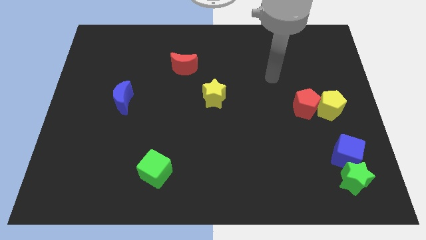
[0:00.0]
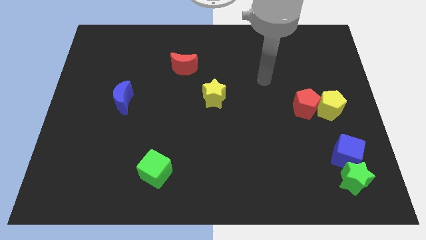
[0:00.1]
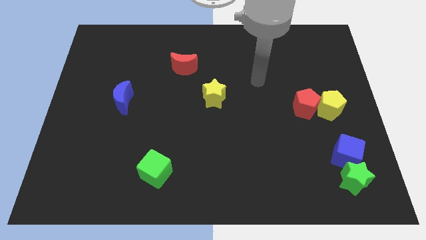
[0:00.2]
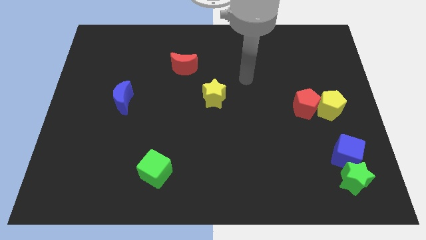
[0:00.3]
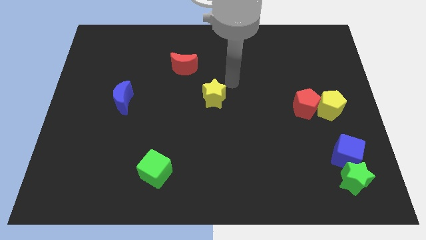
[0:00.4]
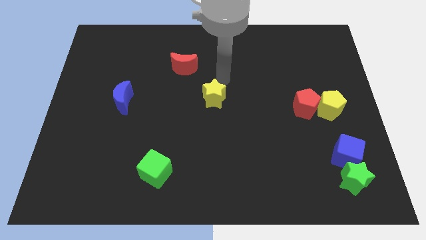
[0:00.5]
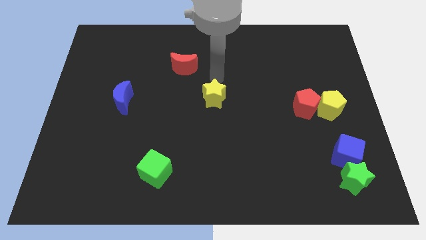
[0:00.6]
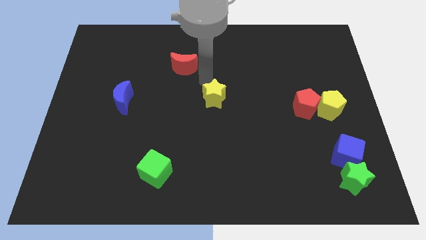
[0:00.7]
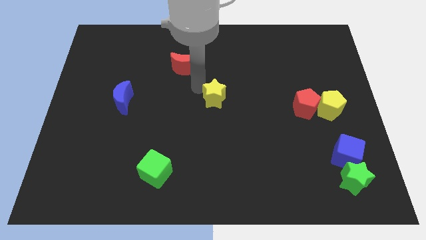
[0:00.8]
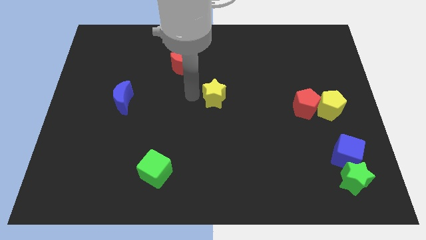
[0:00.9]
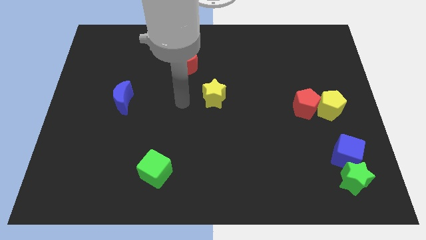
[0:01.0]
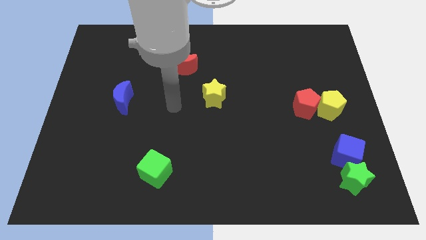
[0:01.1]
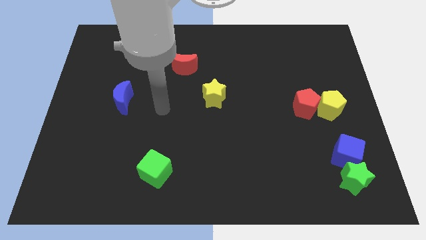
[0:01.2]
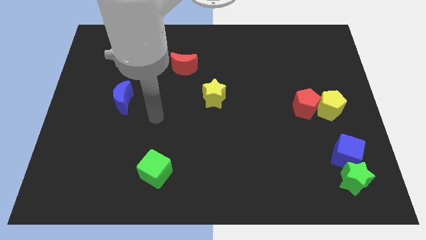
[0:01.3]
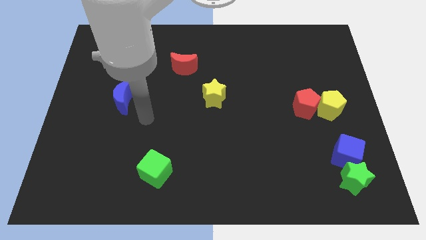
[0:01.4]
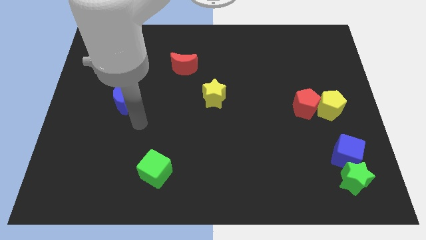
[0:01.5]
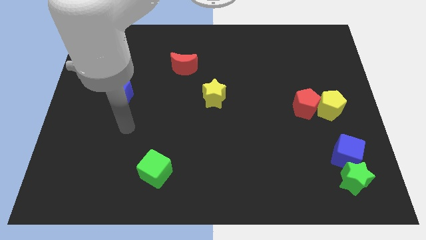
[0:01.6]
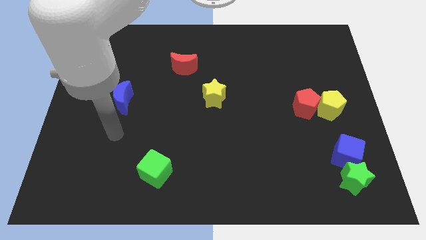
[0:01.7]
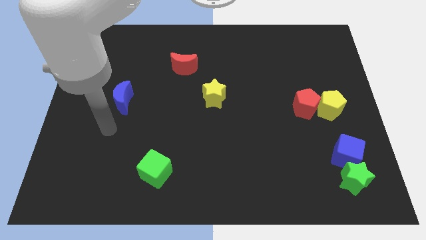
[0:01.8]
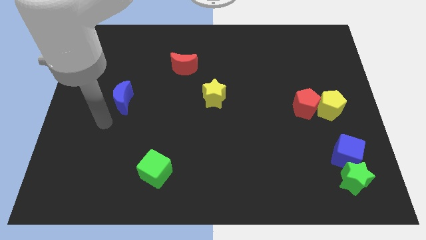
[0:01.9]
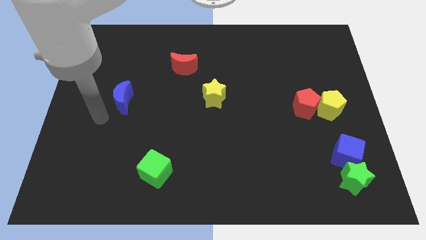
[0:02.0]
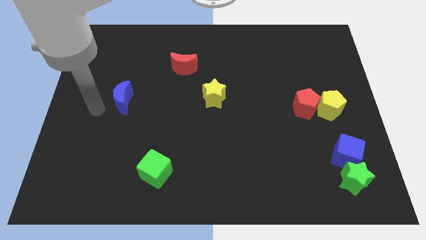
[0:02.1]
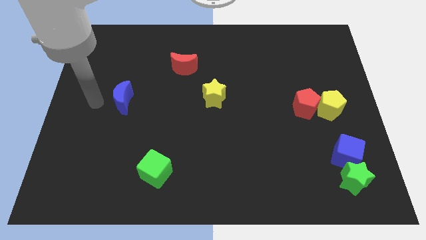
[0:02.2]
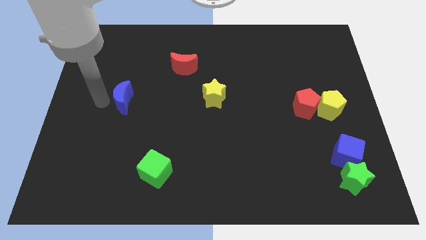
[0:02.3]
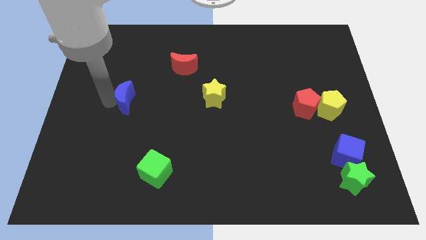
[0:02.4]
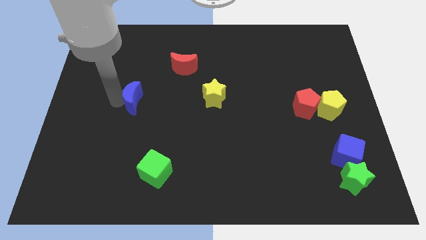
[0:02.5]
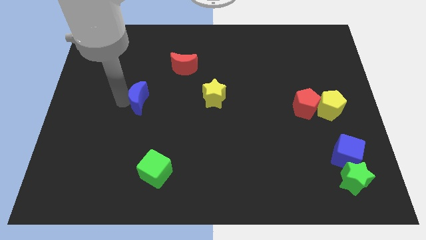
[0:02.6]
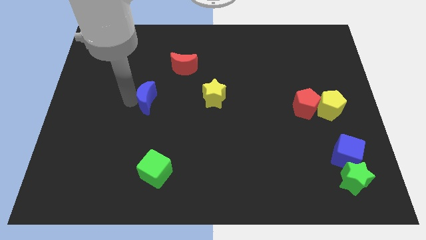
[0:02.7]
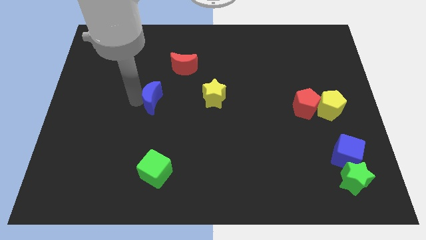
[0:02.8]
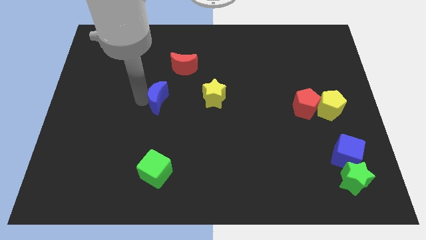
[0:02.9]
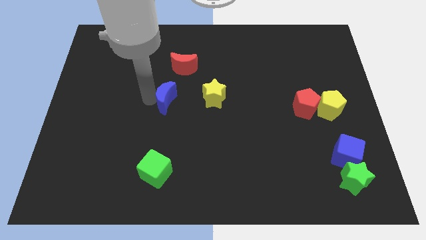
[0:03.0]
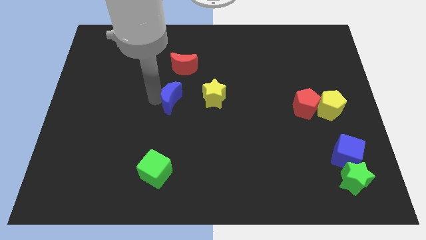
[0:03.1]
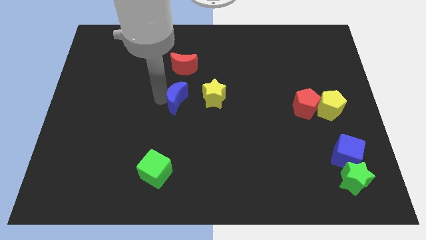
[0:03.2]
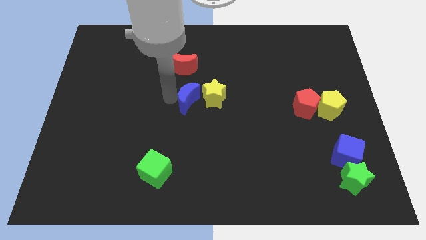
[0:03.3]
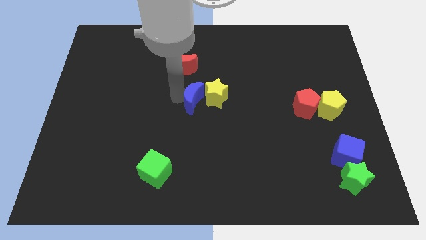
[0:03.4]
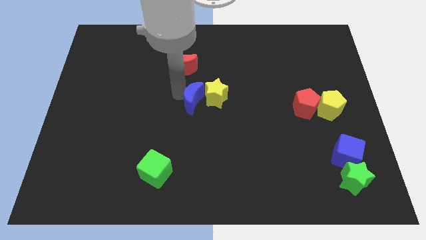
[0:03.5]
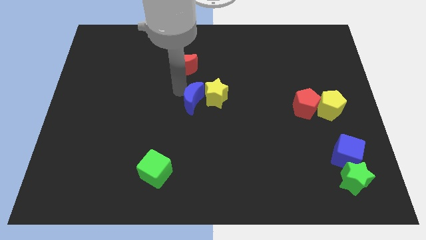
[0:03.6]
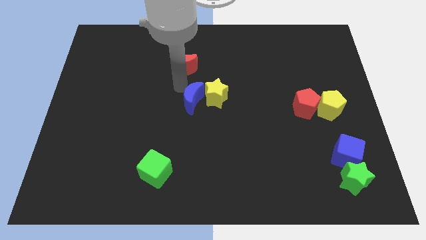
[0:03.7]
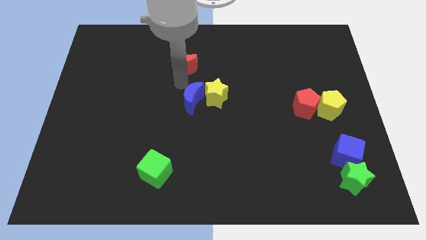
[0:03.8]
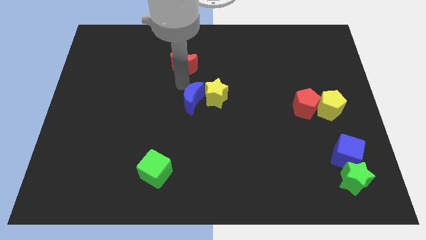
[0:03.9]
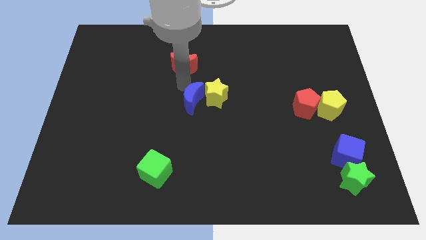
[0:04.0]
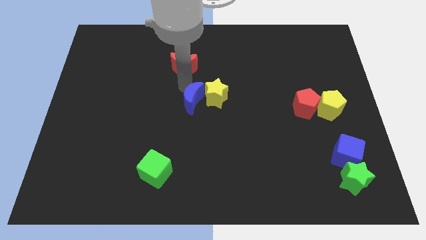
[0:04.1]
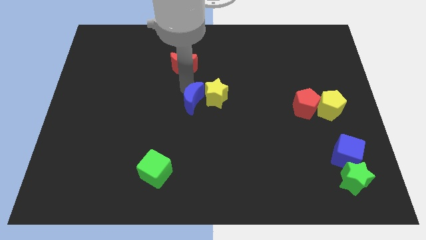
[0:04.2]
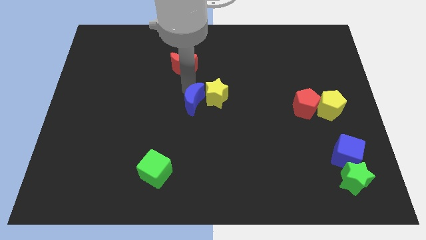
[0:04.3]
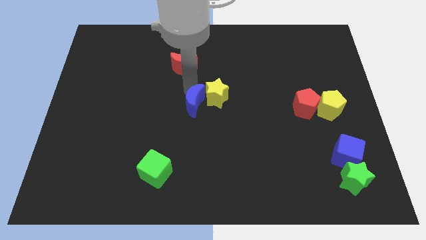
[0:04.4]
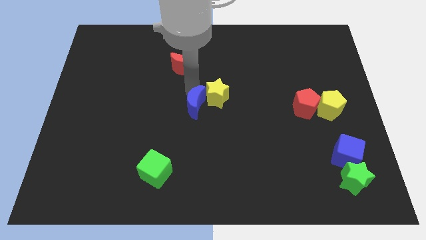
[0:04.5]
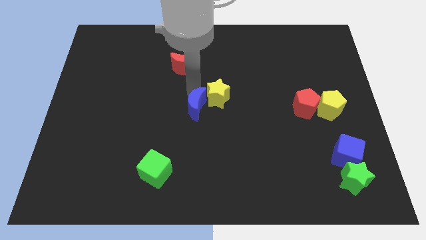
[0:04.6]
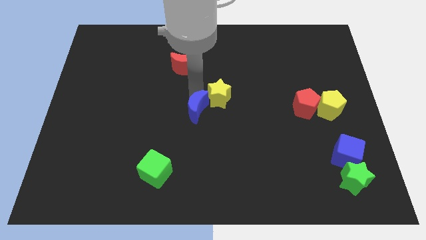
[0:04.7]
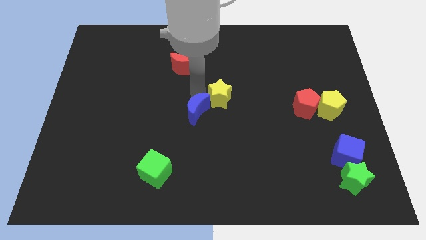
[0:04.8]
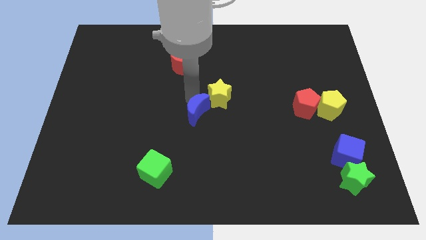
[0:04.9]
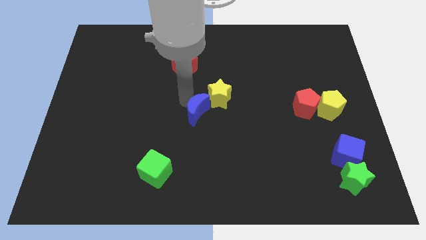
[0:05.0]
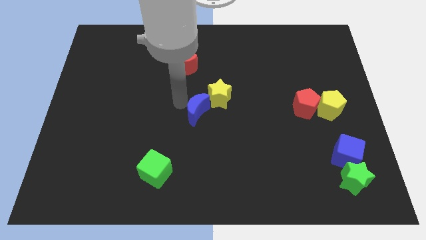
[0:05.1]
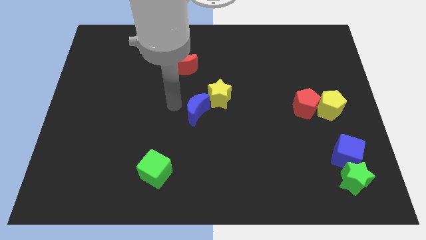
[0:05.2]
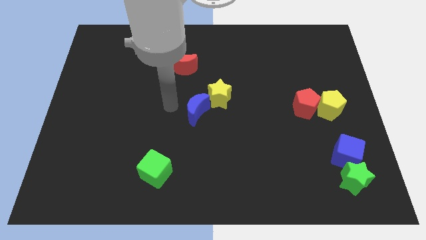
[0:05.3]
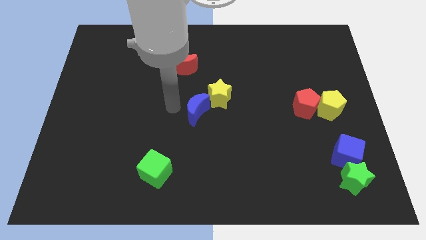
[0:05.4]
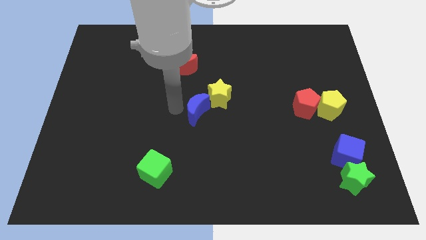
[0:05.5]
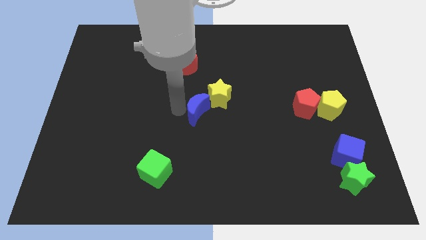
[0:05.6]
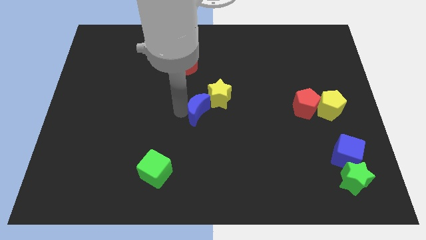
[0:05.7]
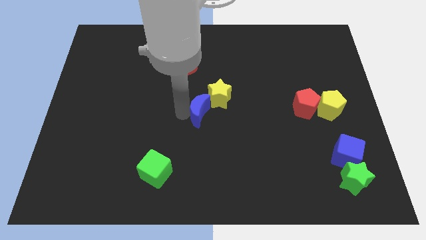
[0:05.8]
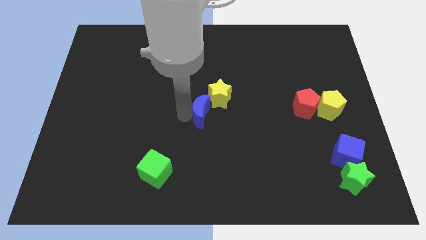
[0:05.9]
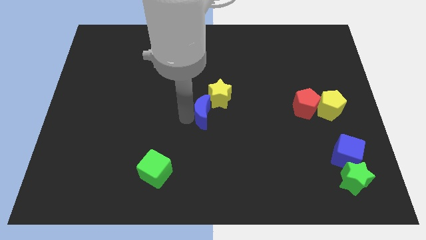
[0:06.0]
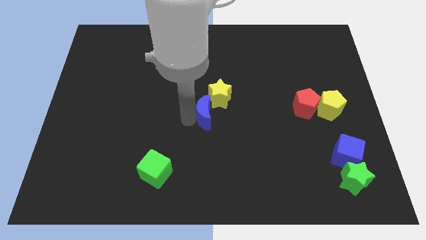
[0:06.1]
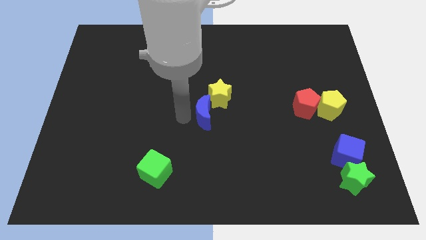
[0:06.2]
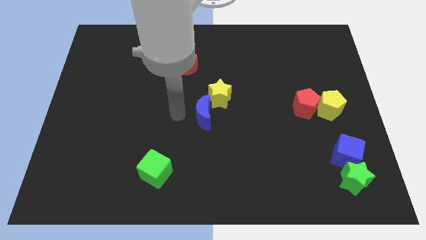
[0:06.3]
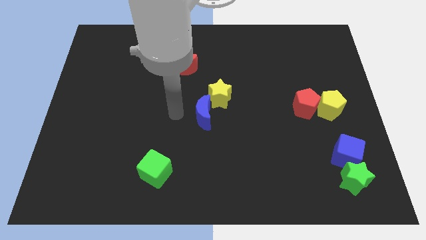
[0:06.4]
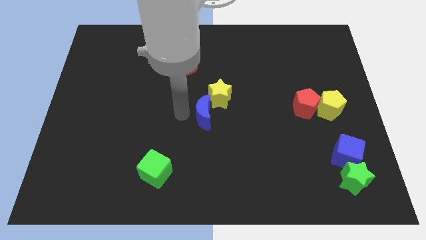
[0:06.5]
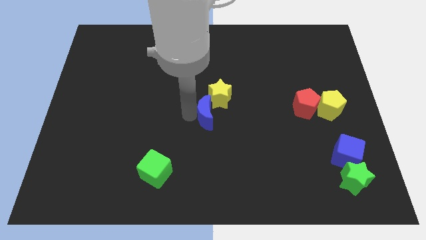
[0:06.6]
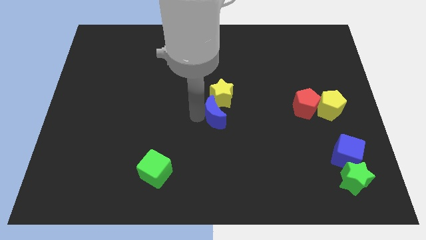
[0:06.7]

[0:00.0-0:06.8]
move the blue moon right

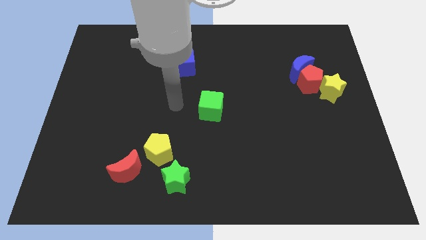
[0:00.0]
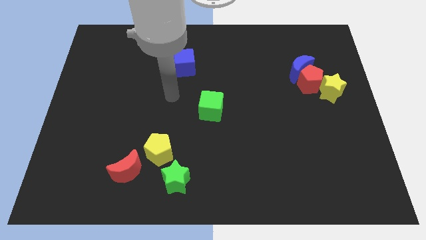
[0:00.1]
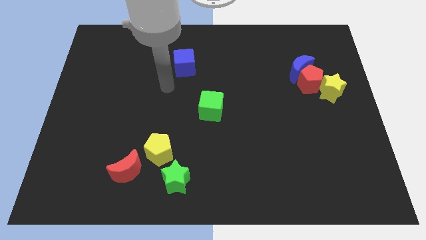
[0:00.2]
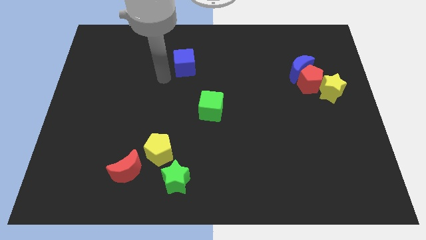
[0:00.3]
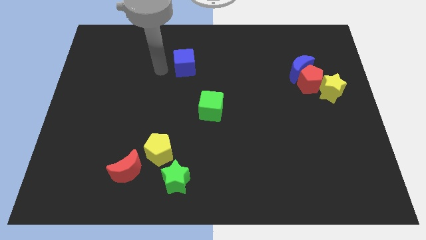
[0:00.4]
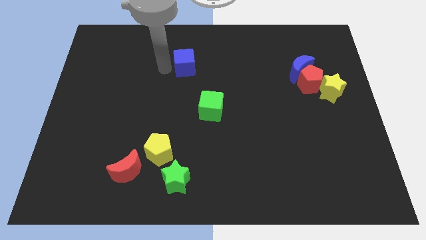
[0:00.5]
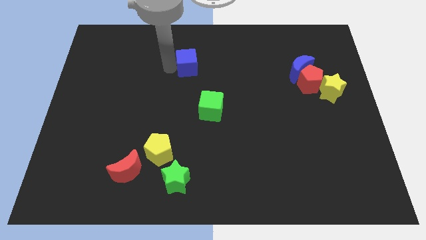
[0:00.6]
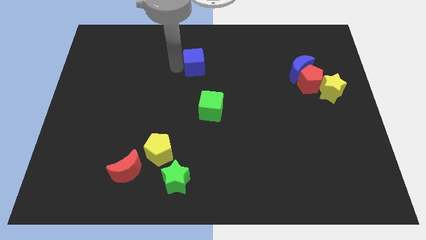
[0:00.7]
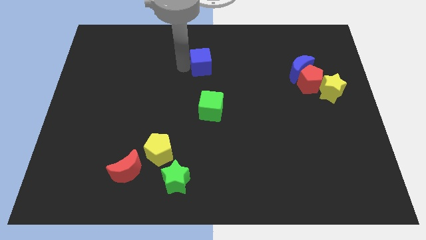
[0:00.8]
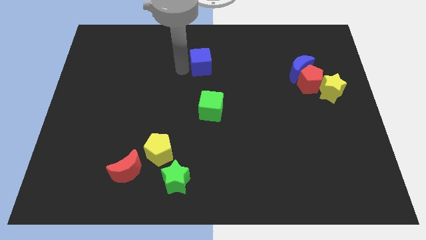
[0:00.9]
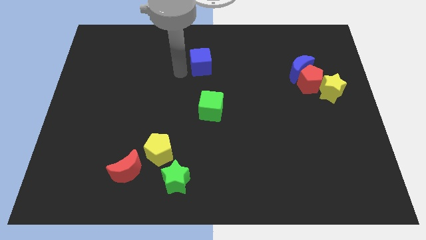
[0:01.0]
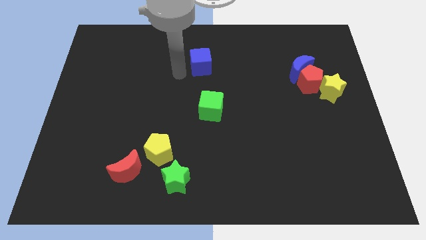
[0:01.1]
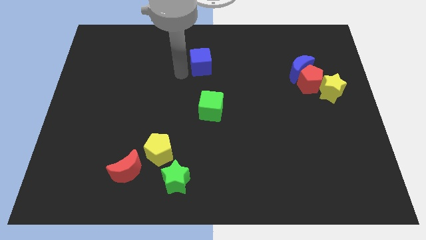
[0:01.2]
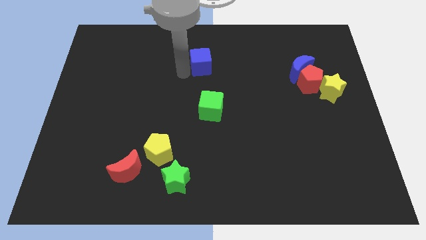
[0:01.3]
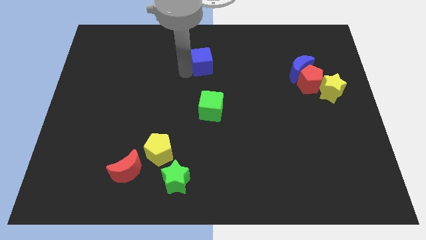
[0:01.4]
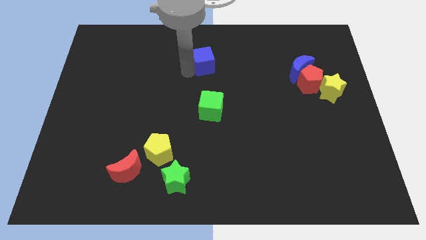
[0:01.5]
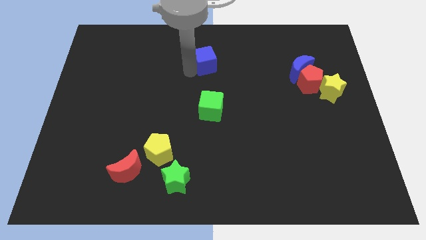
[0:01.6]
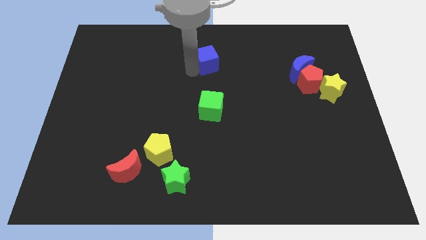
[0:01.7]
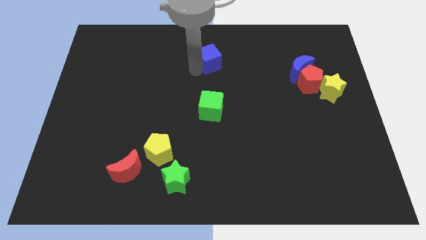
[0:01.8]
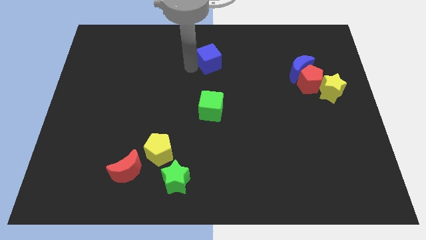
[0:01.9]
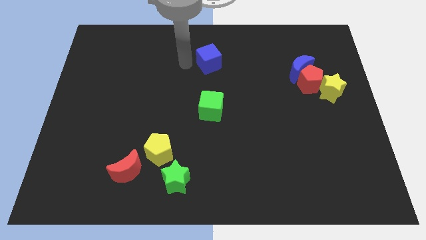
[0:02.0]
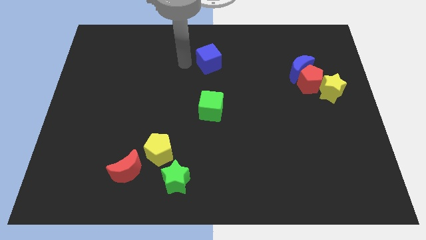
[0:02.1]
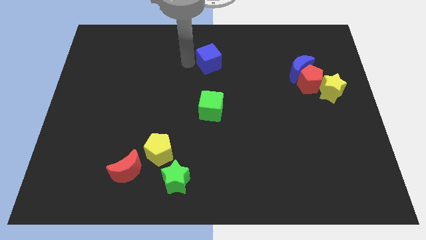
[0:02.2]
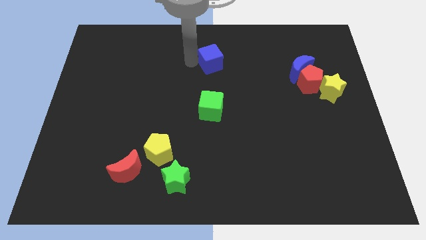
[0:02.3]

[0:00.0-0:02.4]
slide the blue cube to the right a little bit
